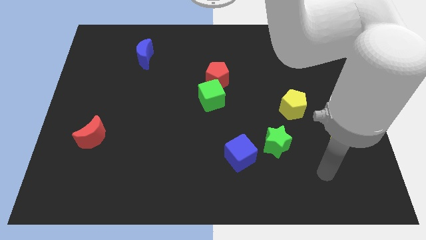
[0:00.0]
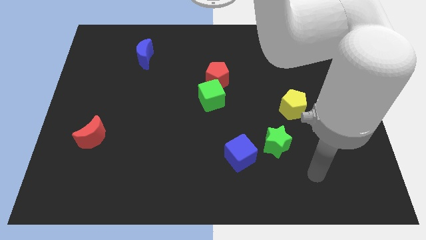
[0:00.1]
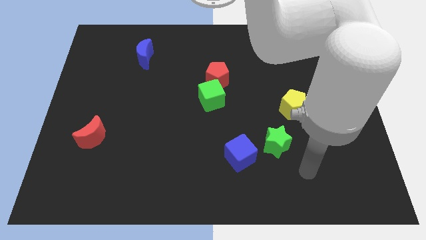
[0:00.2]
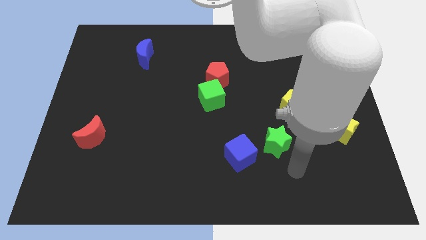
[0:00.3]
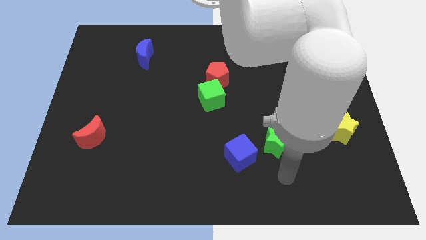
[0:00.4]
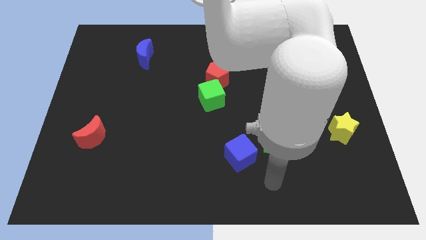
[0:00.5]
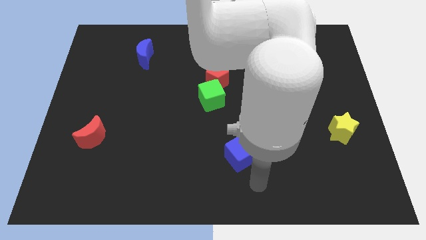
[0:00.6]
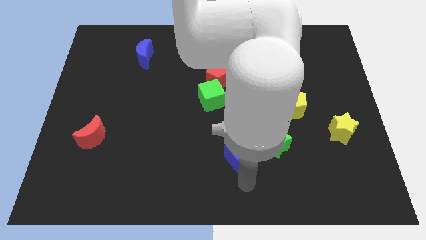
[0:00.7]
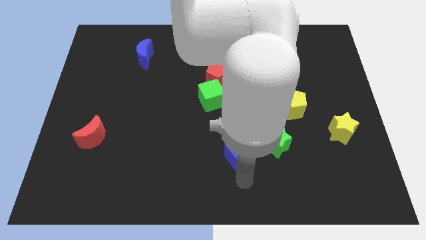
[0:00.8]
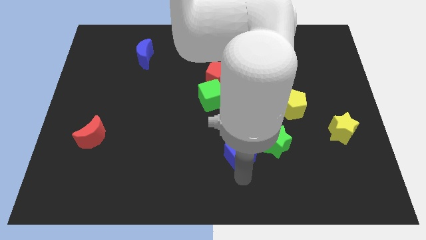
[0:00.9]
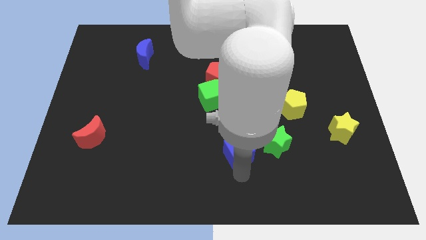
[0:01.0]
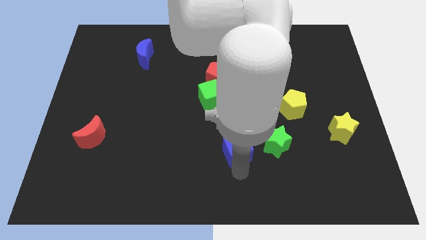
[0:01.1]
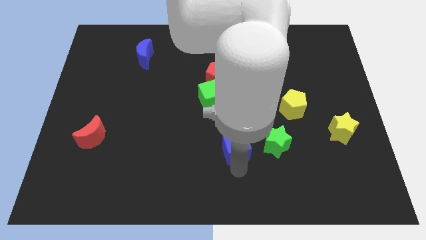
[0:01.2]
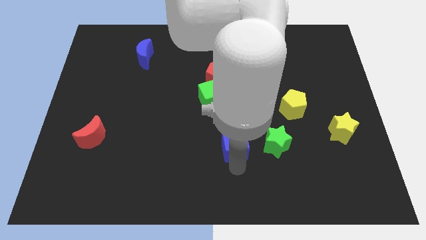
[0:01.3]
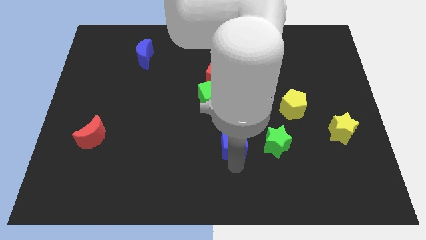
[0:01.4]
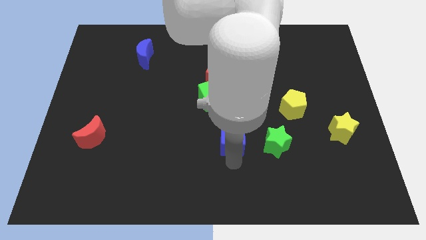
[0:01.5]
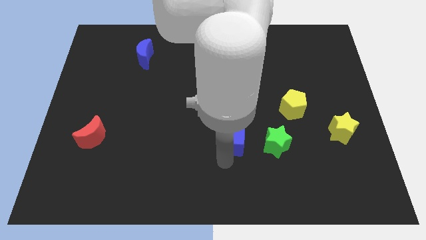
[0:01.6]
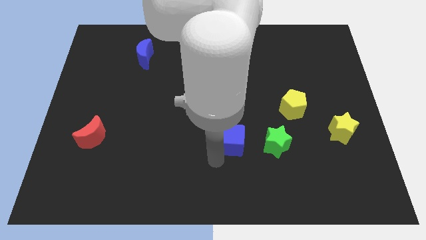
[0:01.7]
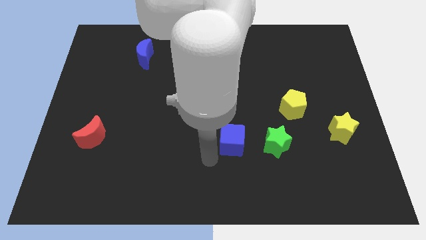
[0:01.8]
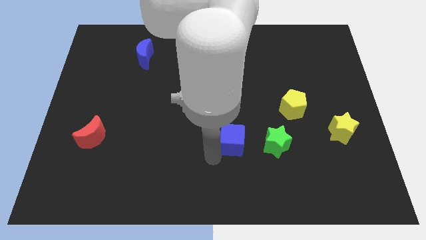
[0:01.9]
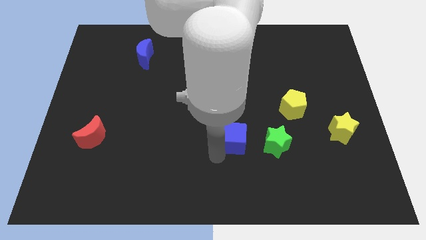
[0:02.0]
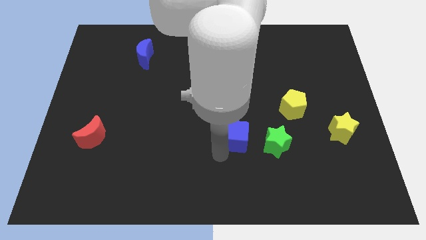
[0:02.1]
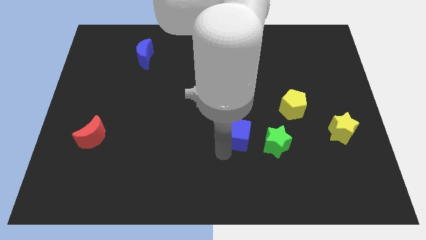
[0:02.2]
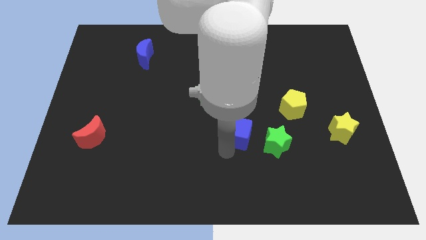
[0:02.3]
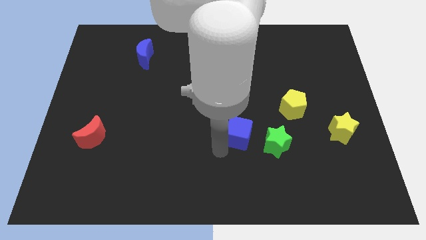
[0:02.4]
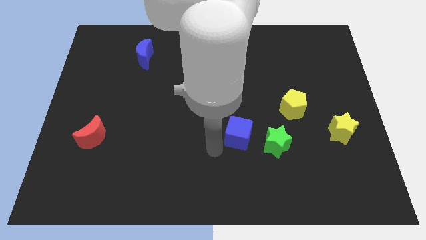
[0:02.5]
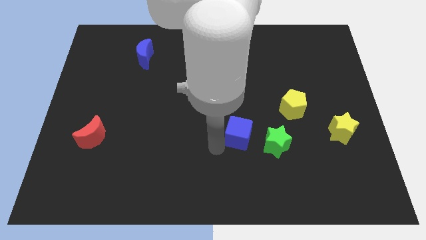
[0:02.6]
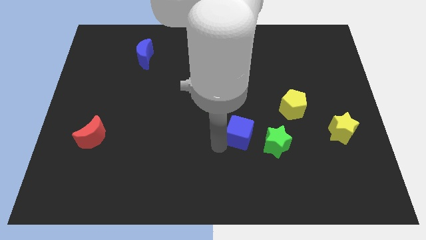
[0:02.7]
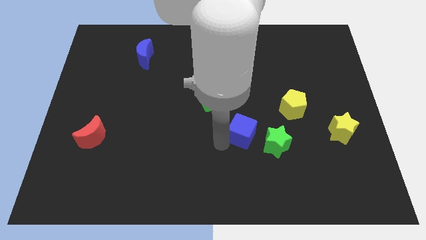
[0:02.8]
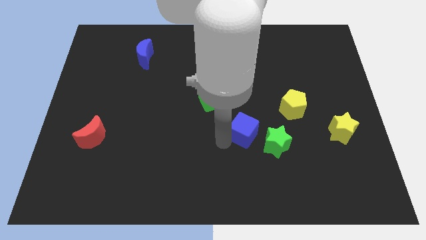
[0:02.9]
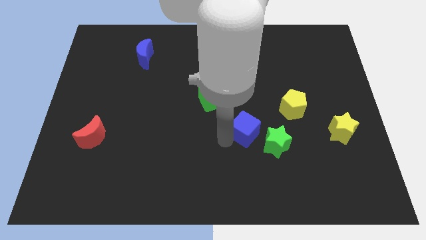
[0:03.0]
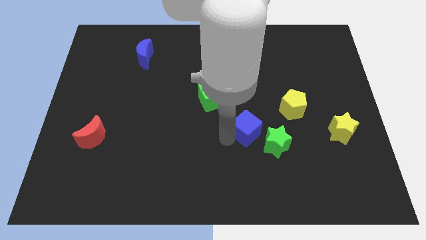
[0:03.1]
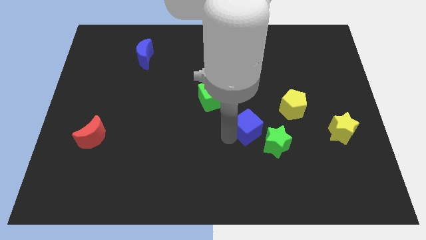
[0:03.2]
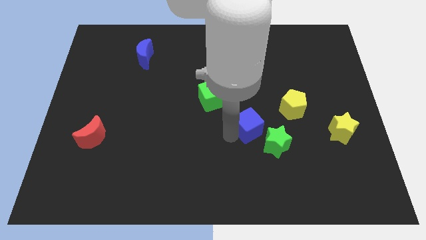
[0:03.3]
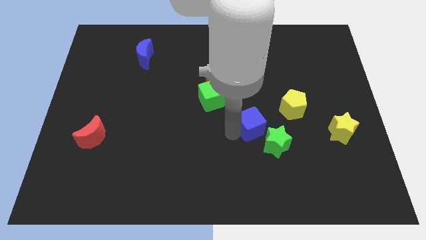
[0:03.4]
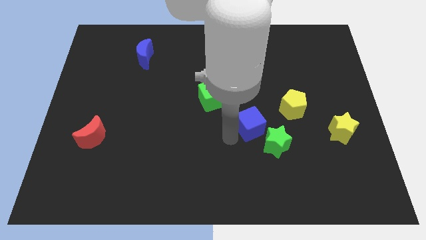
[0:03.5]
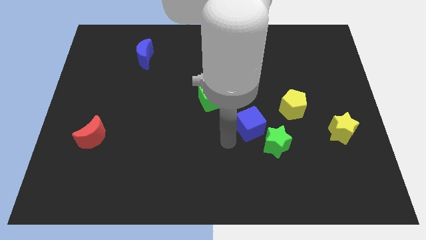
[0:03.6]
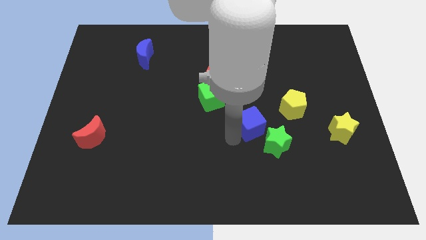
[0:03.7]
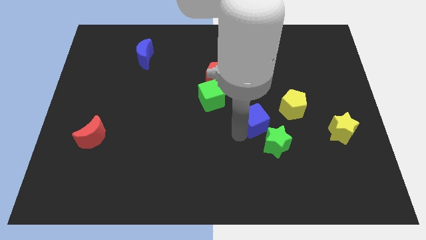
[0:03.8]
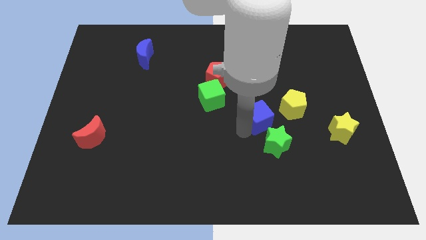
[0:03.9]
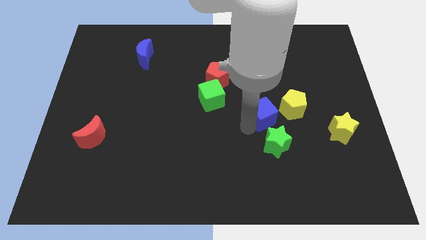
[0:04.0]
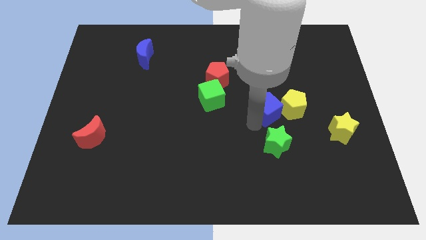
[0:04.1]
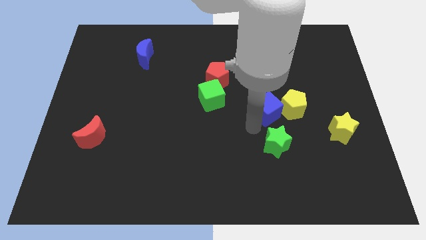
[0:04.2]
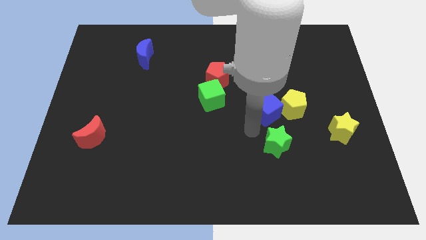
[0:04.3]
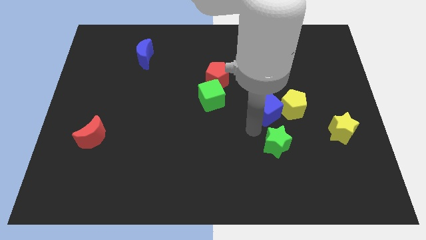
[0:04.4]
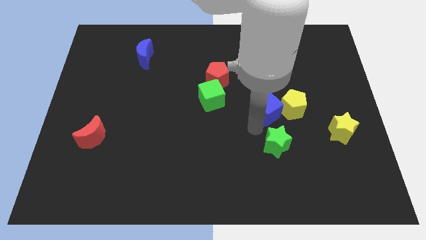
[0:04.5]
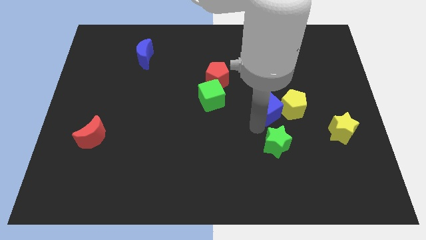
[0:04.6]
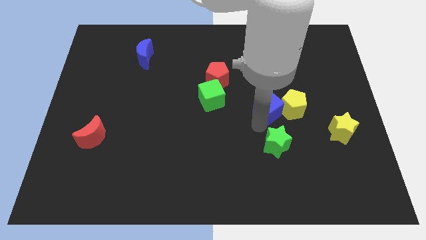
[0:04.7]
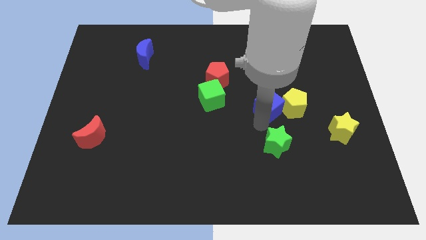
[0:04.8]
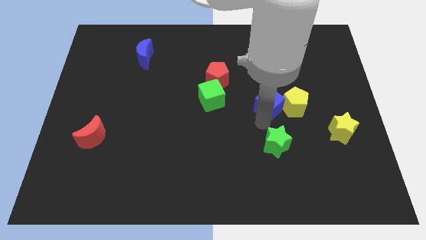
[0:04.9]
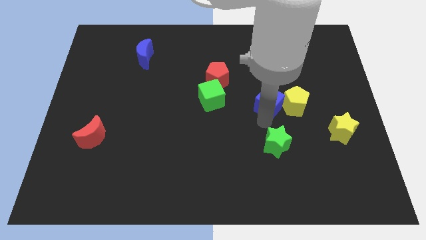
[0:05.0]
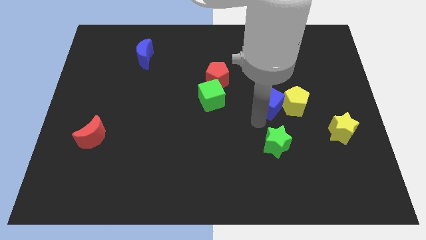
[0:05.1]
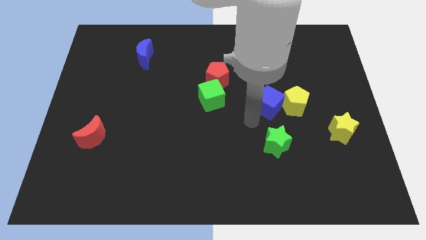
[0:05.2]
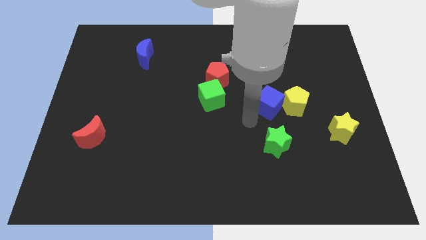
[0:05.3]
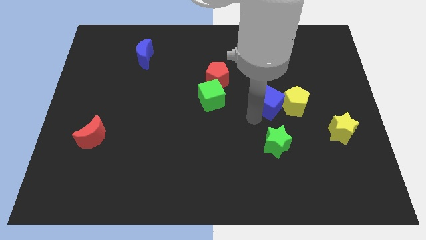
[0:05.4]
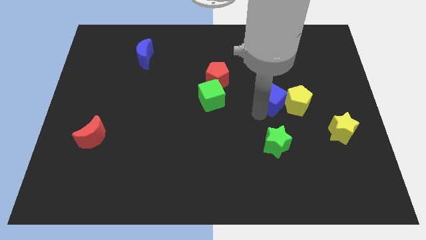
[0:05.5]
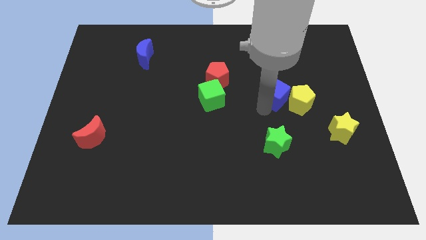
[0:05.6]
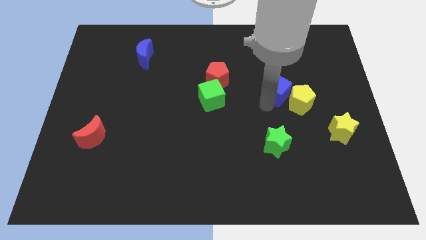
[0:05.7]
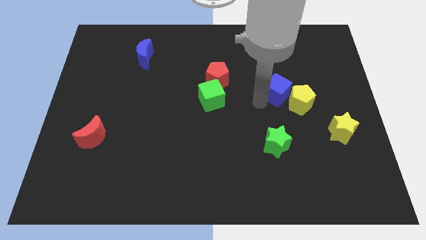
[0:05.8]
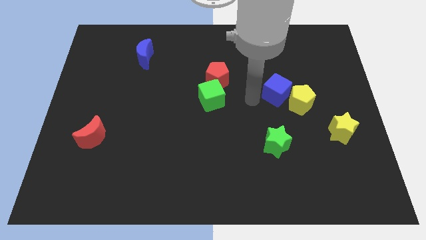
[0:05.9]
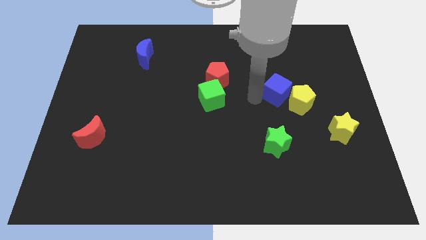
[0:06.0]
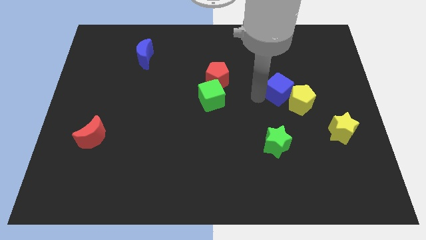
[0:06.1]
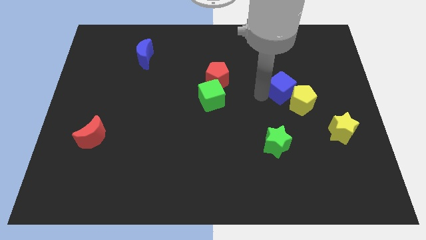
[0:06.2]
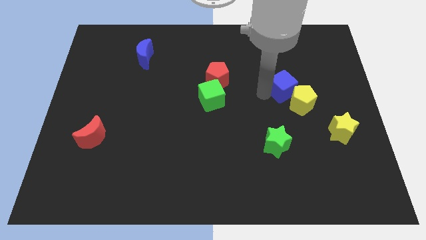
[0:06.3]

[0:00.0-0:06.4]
move the blue cube diagonally up and right

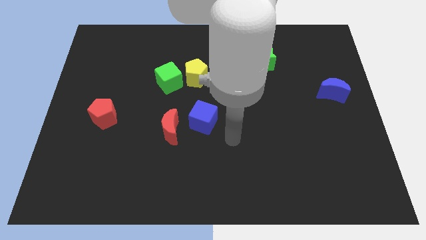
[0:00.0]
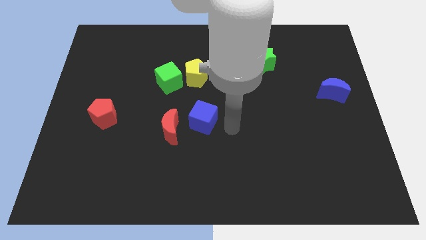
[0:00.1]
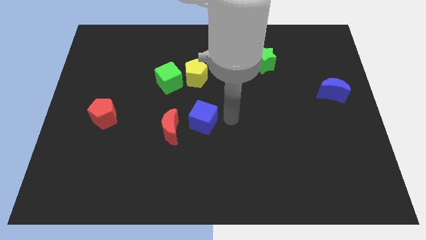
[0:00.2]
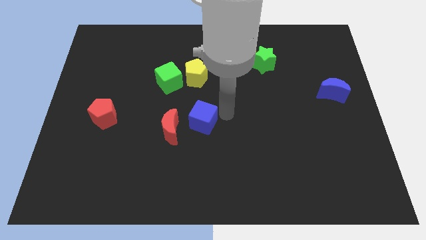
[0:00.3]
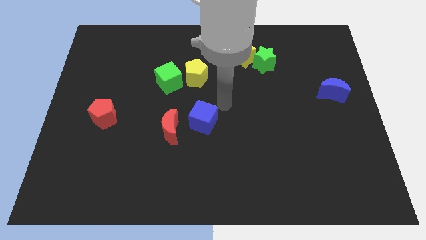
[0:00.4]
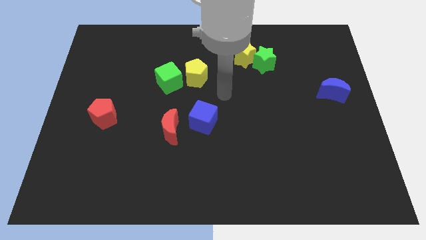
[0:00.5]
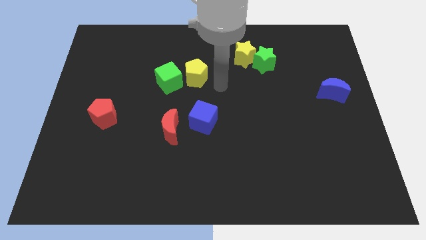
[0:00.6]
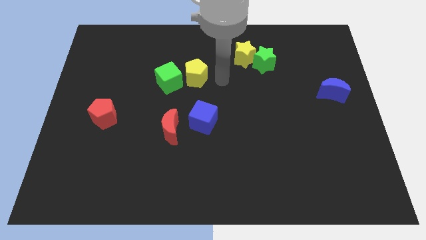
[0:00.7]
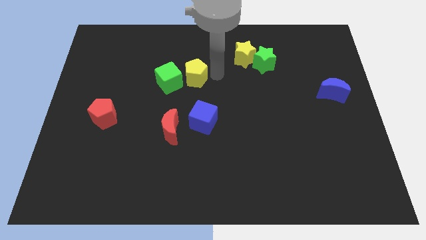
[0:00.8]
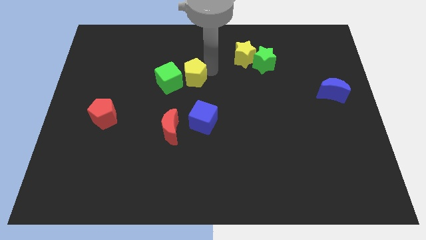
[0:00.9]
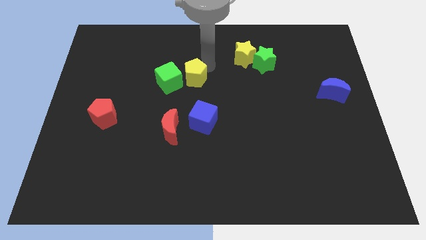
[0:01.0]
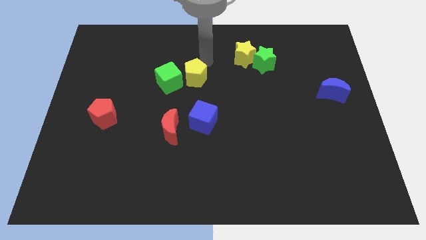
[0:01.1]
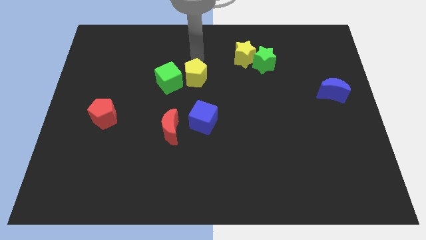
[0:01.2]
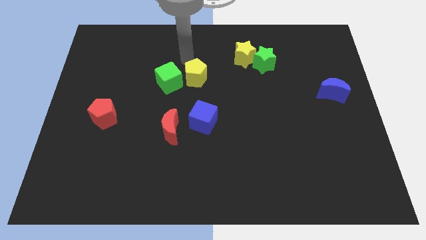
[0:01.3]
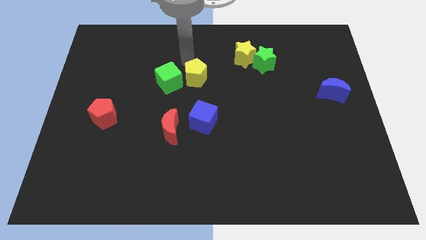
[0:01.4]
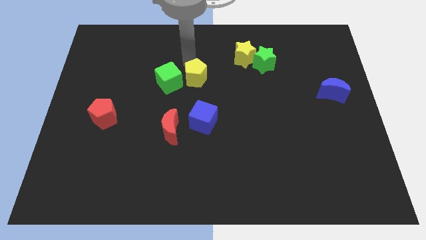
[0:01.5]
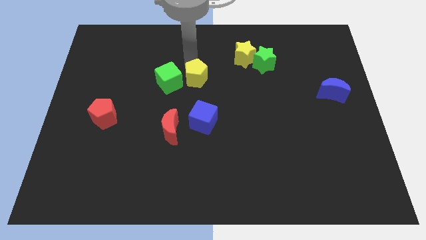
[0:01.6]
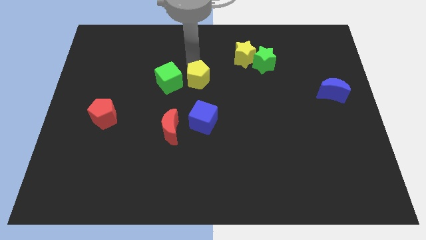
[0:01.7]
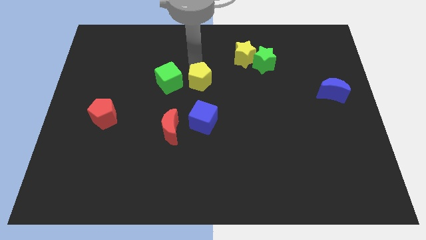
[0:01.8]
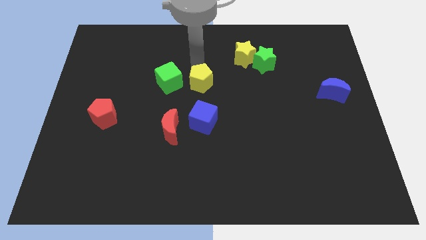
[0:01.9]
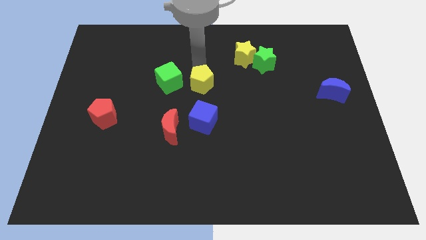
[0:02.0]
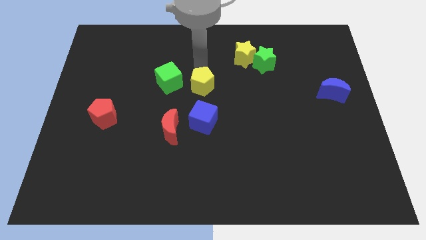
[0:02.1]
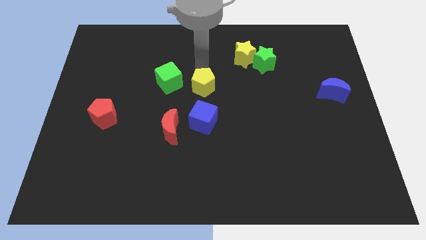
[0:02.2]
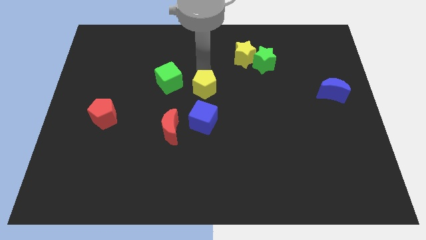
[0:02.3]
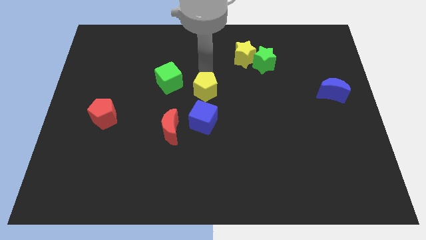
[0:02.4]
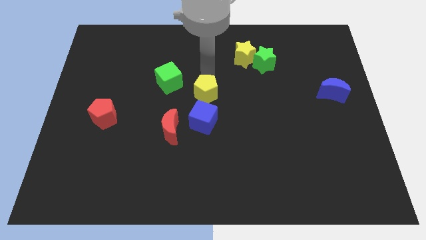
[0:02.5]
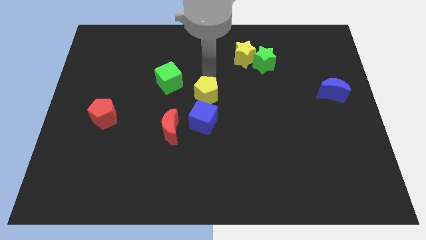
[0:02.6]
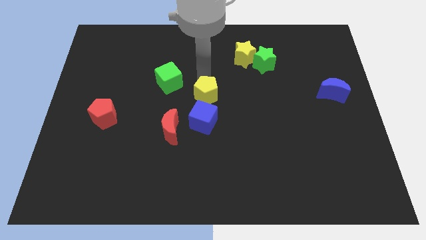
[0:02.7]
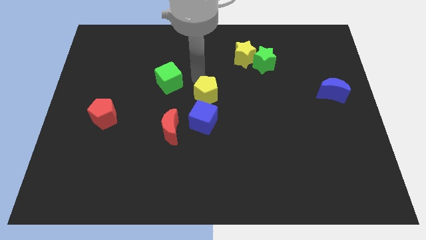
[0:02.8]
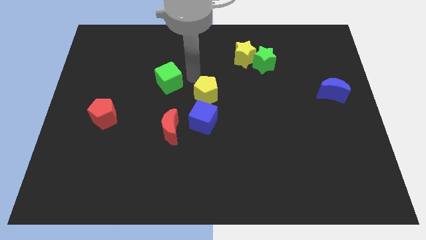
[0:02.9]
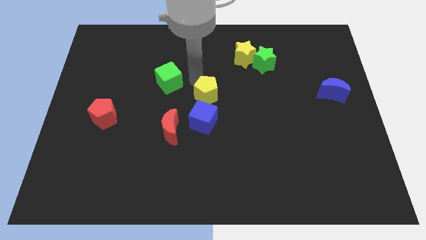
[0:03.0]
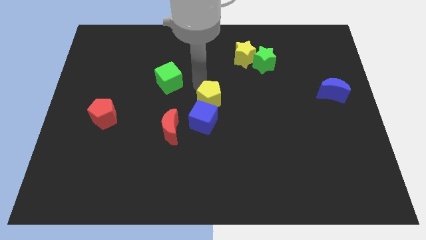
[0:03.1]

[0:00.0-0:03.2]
push the yellow pentagon downwards a little bit
